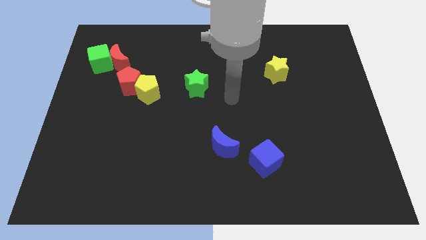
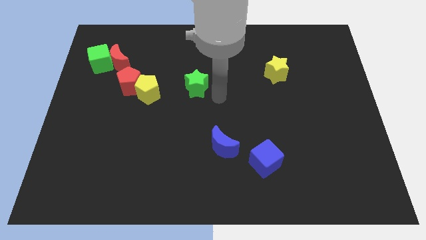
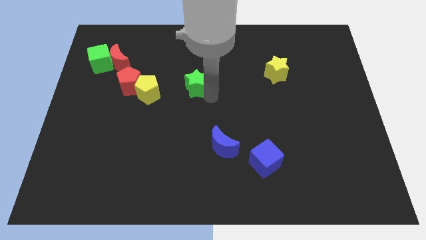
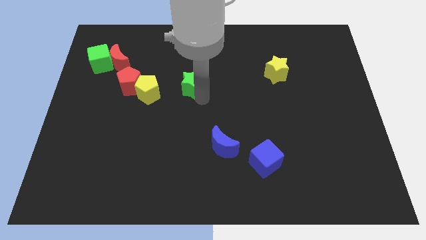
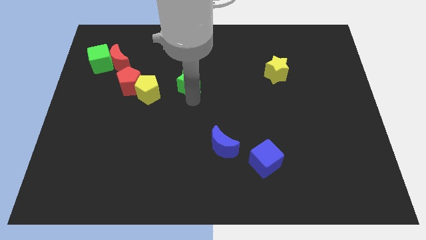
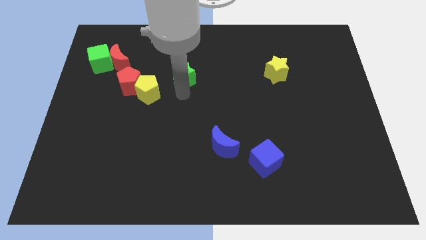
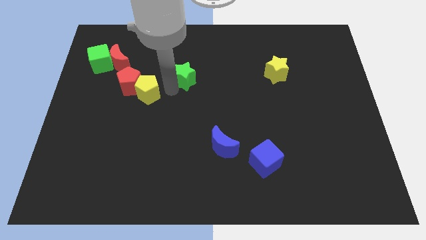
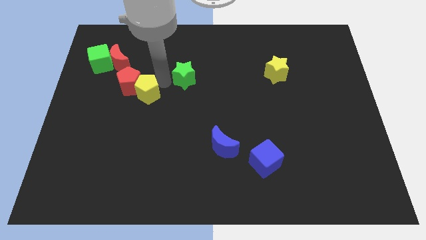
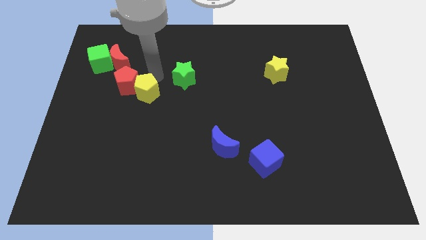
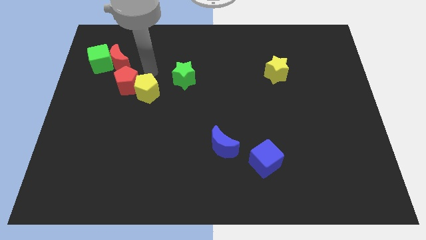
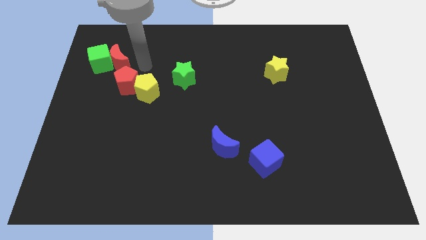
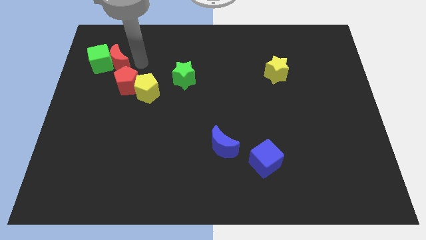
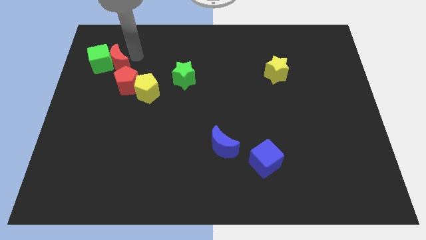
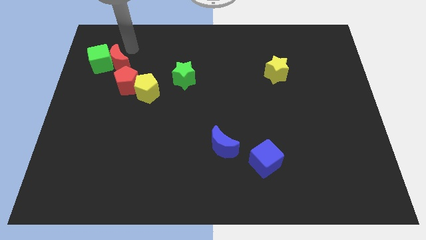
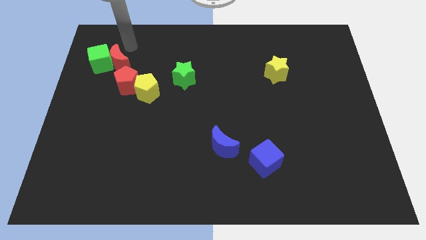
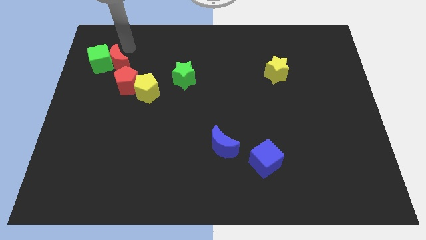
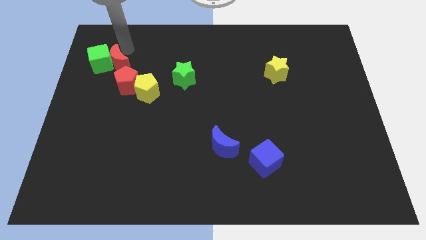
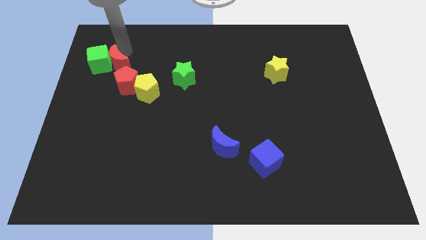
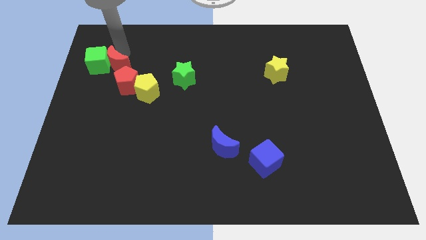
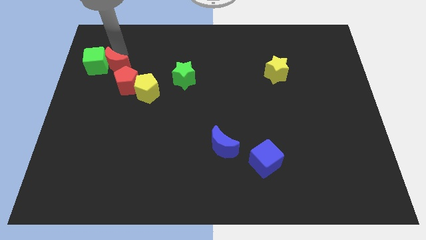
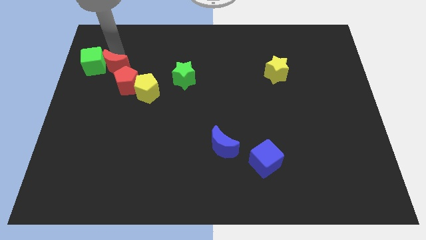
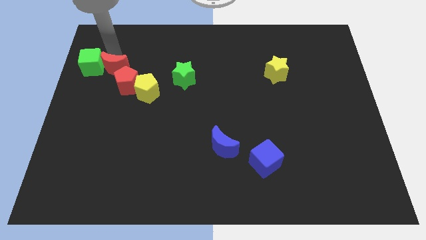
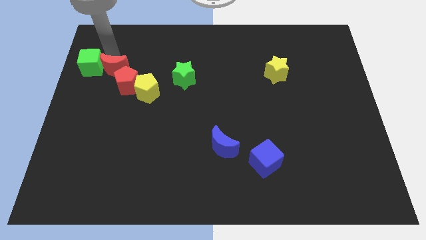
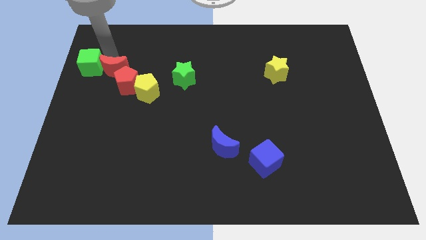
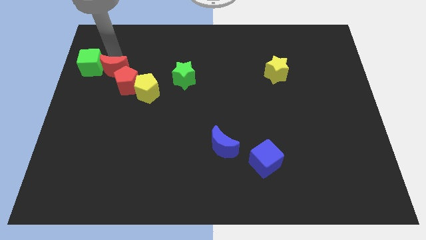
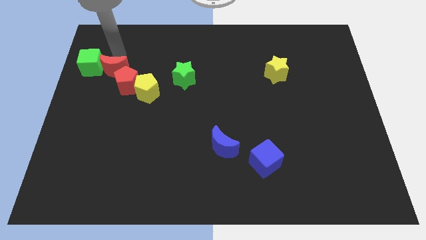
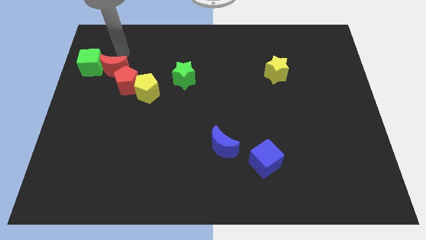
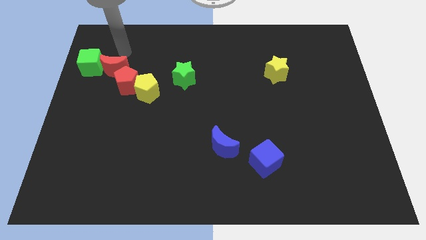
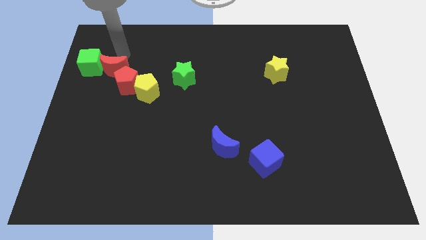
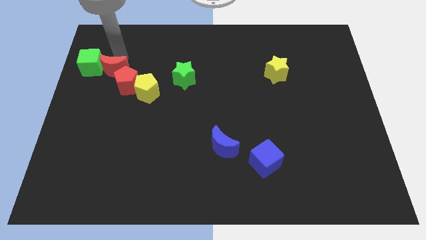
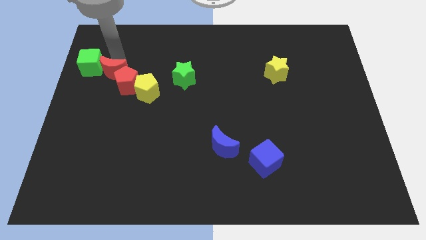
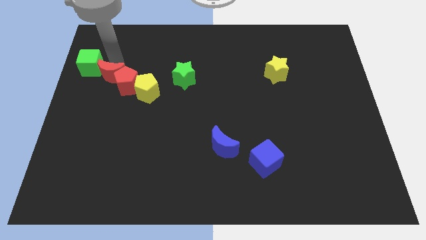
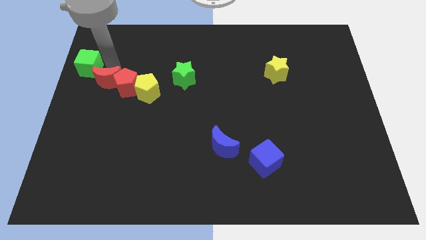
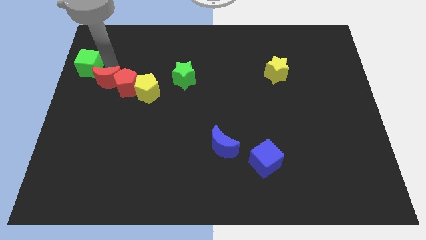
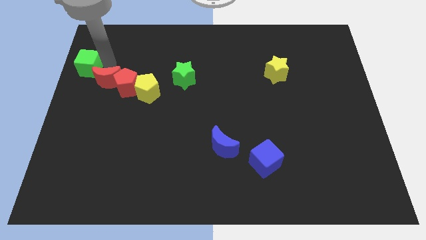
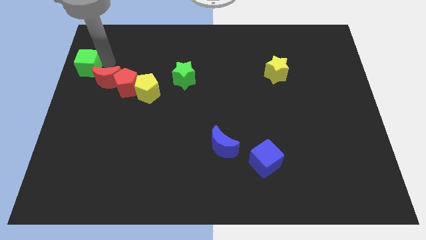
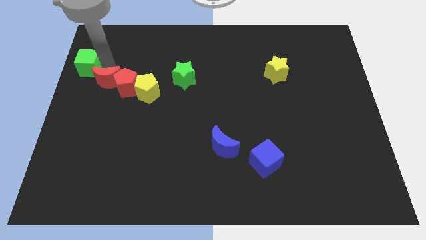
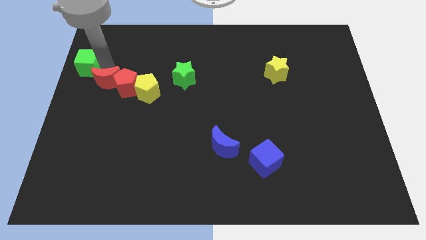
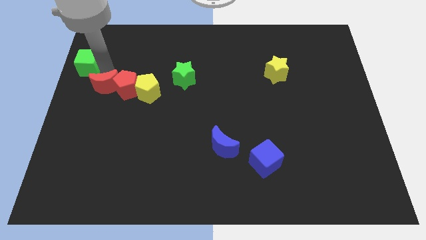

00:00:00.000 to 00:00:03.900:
slide the red moon down a little bit

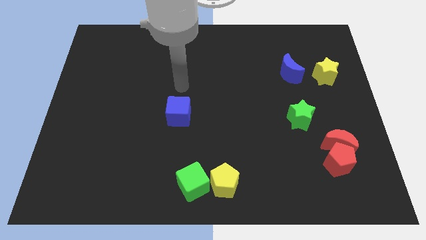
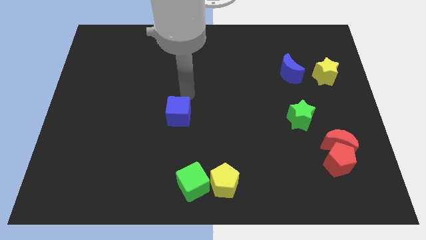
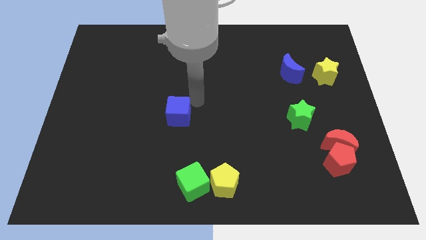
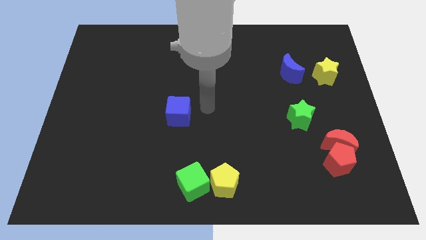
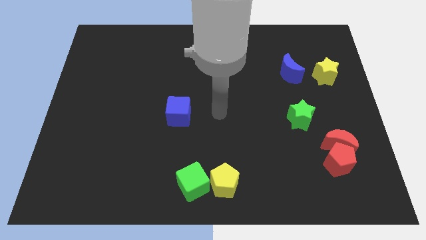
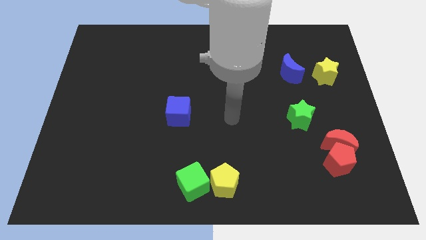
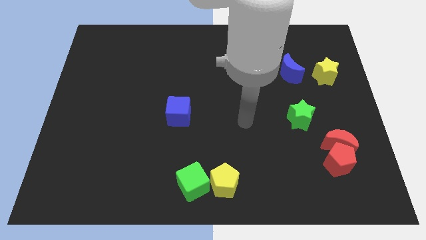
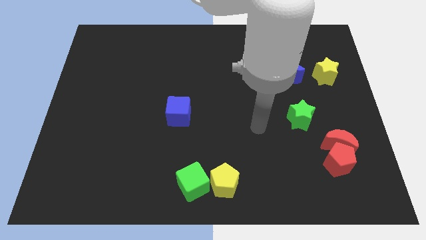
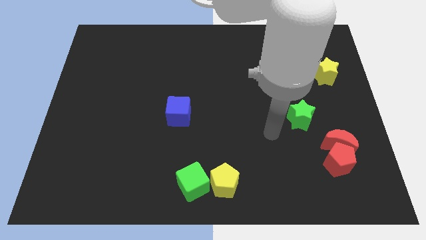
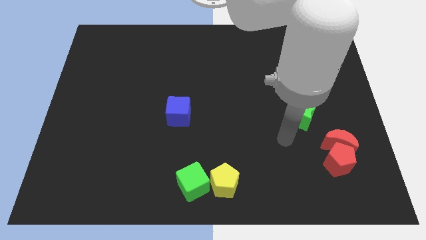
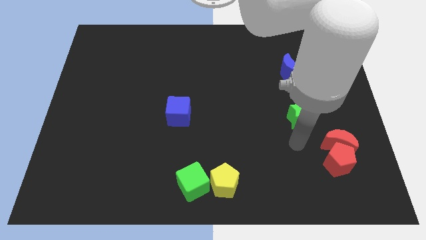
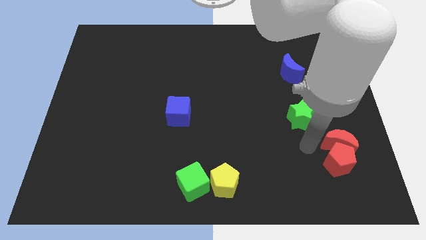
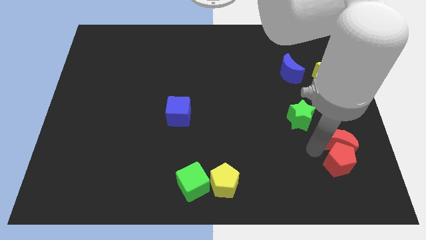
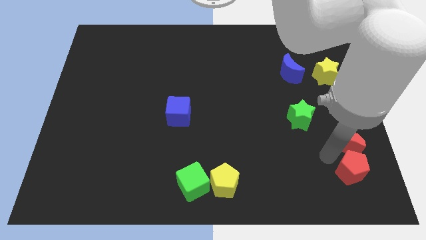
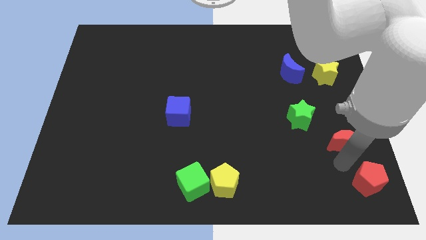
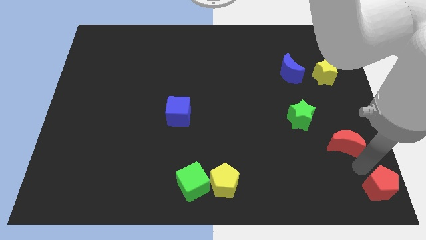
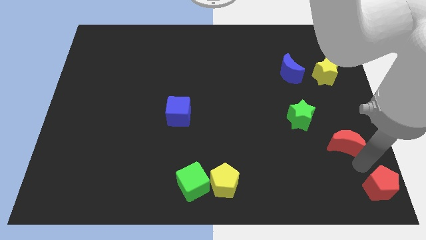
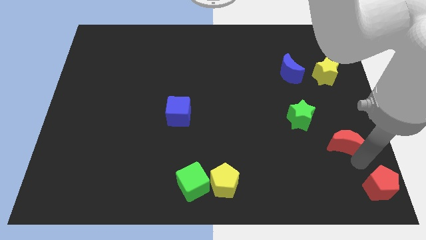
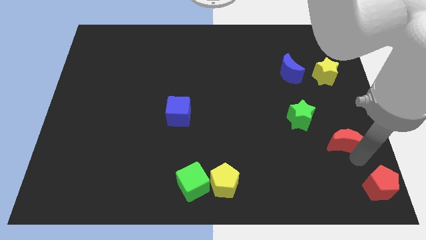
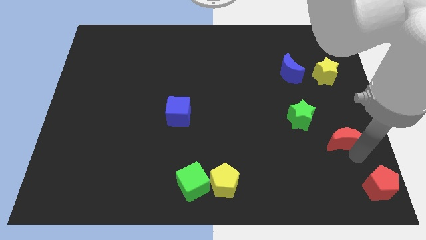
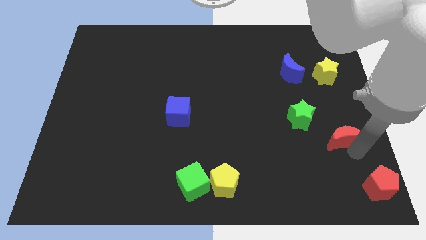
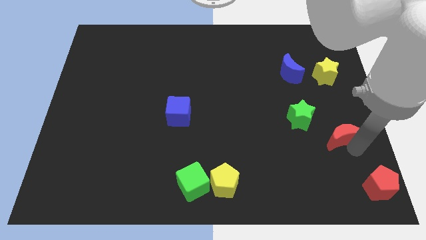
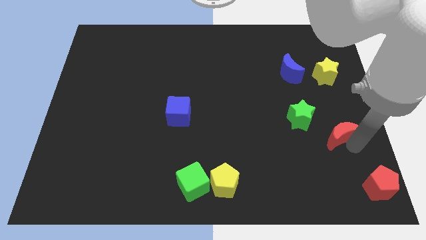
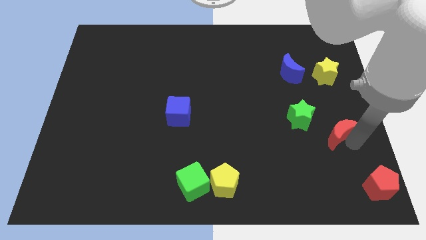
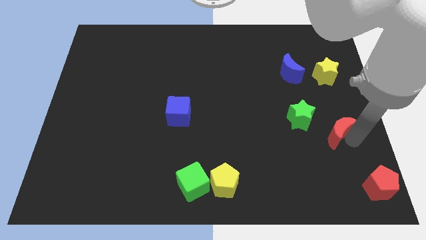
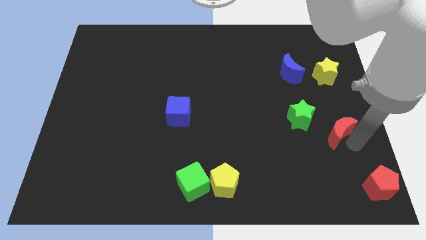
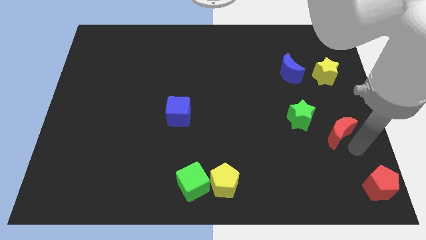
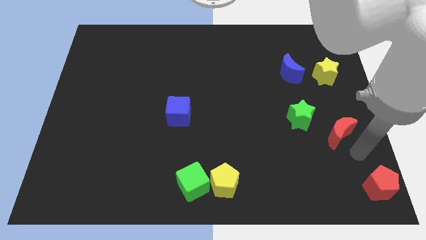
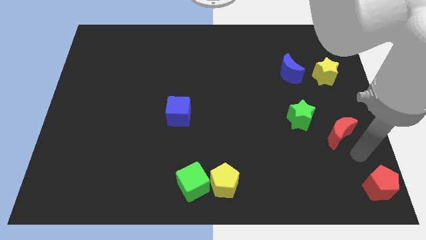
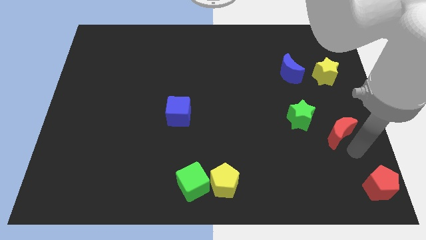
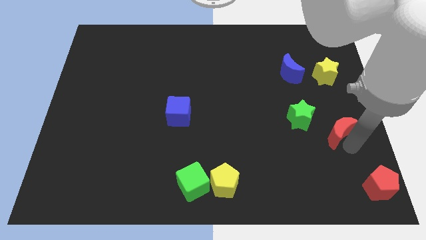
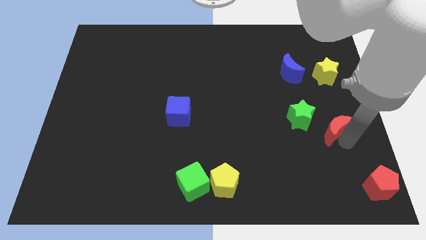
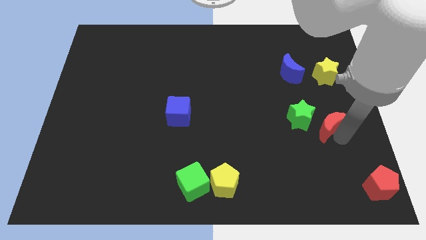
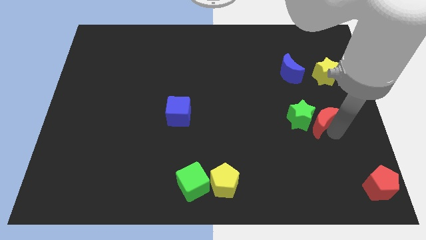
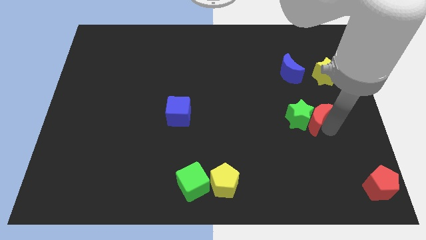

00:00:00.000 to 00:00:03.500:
push the red moon upwards and to the left diagonally a bit

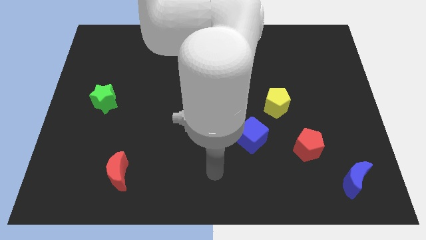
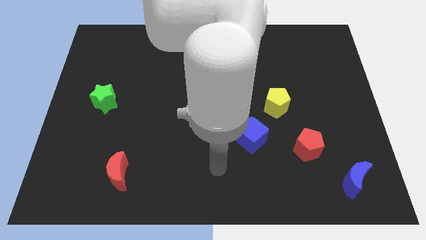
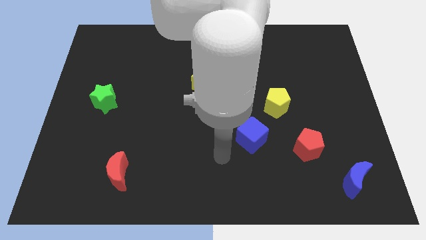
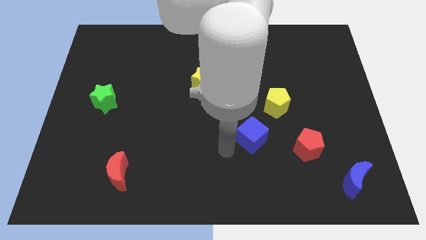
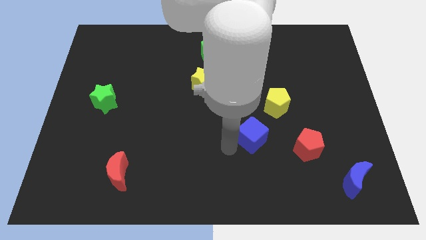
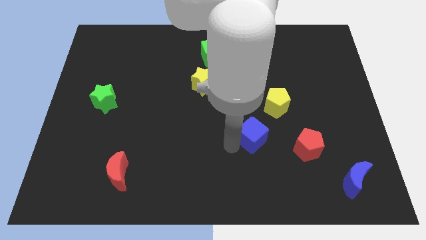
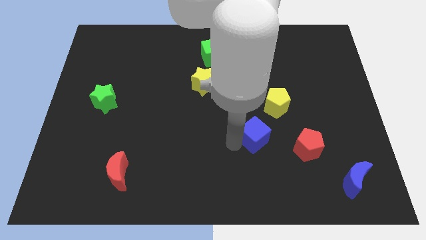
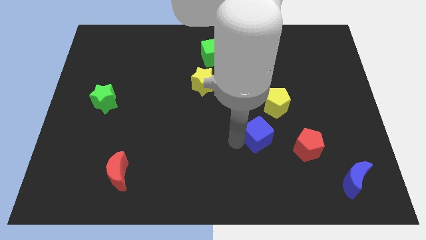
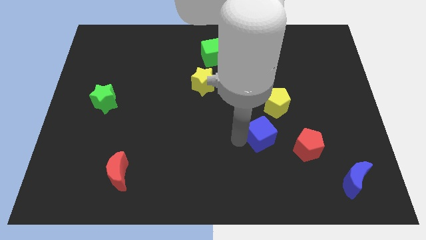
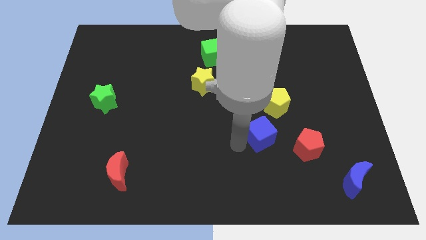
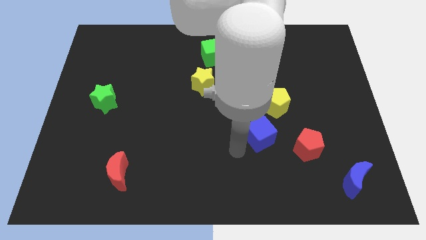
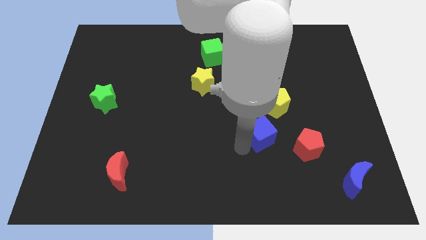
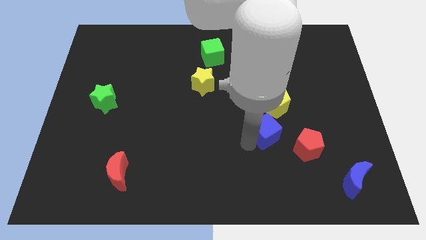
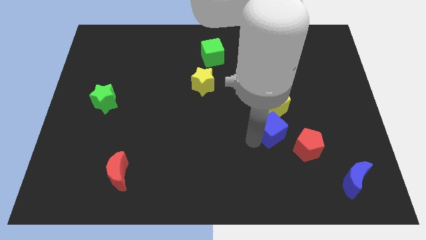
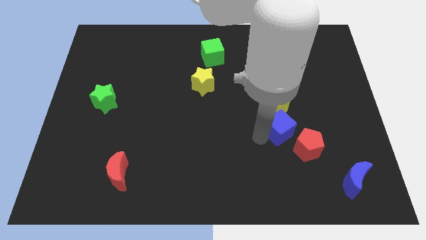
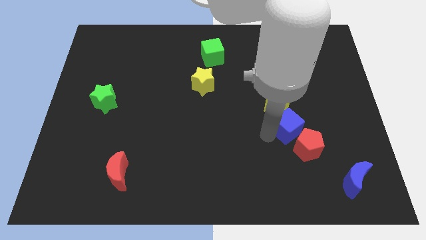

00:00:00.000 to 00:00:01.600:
move the blue cube upwards and to the right diagonally slightly
